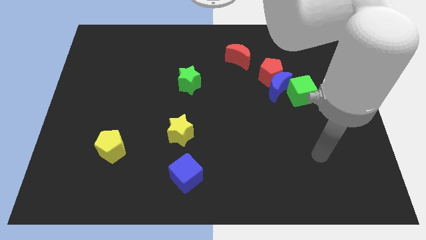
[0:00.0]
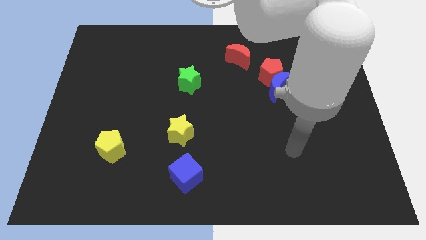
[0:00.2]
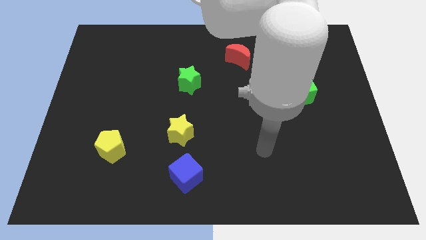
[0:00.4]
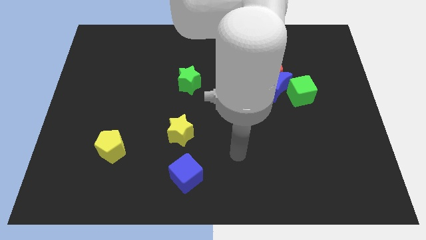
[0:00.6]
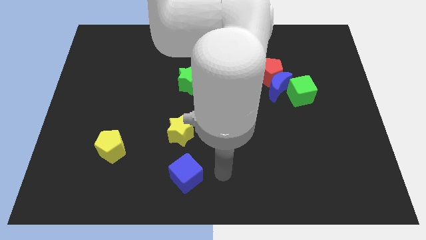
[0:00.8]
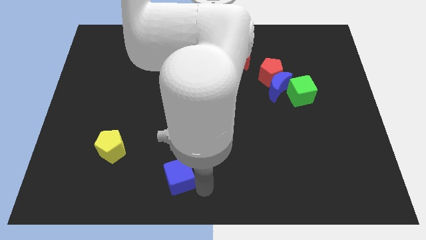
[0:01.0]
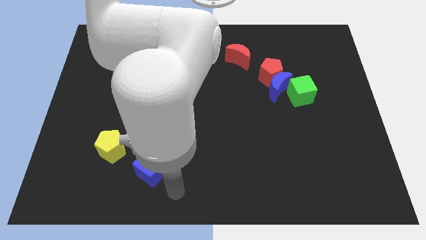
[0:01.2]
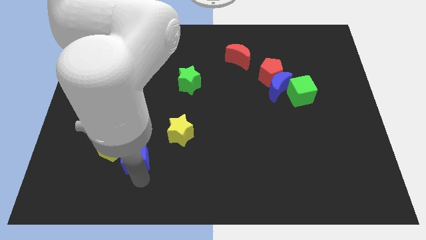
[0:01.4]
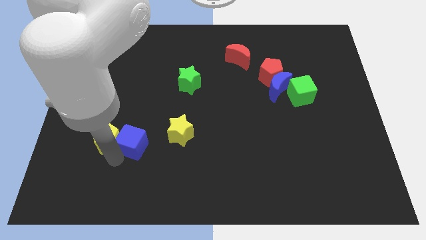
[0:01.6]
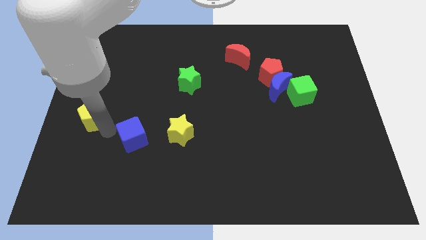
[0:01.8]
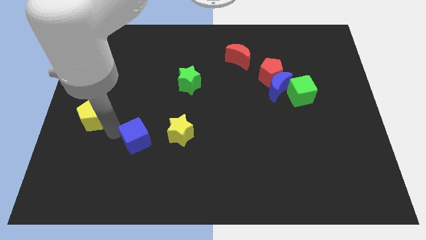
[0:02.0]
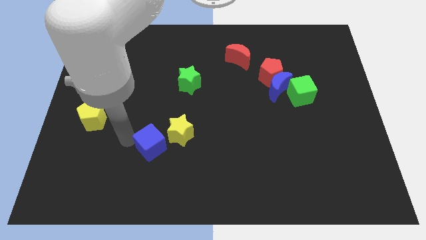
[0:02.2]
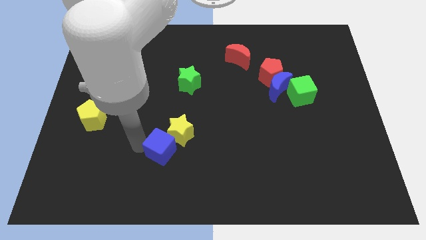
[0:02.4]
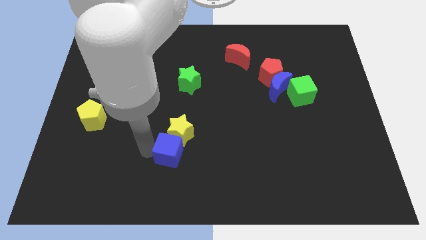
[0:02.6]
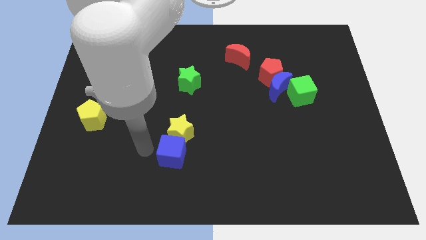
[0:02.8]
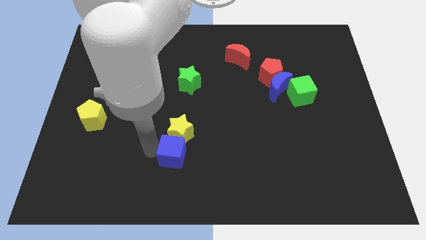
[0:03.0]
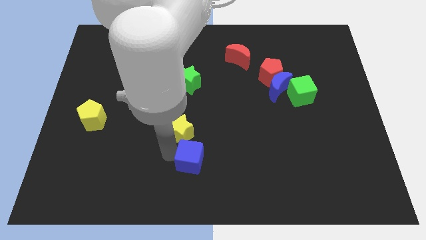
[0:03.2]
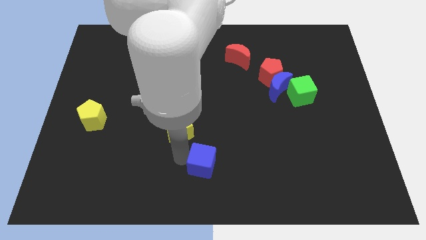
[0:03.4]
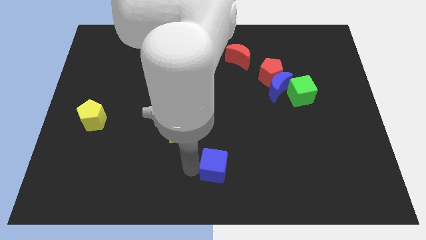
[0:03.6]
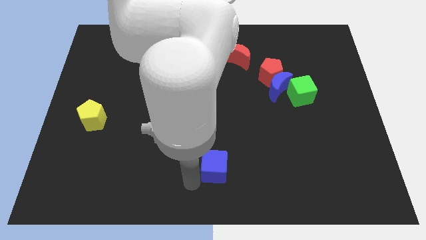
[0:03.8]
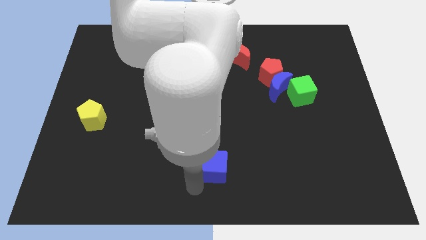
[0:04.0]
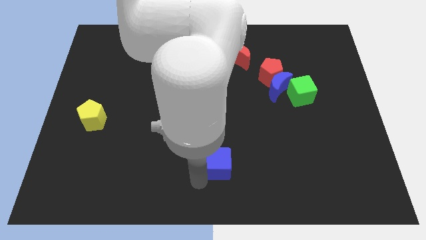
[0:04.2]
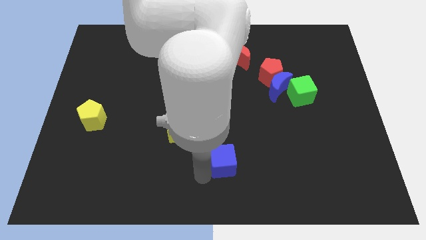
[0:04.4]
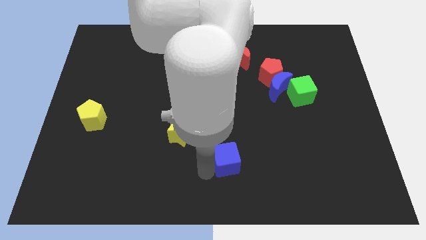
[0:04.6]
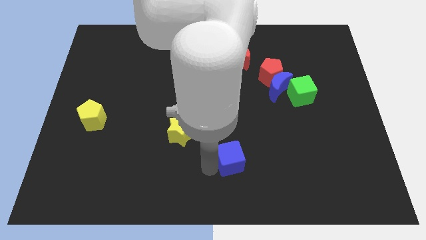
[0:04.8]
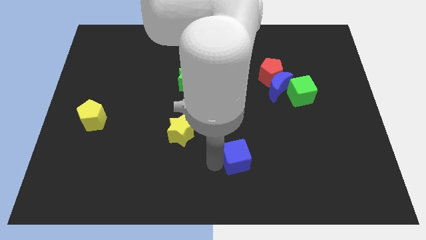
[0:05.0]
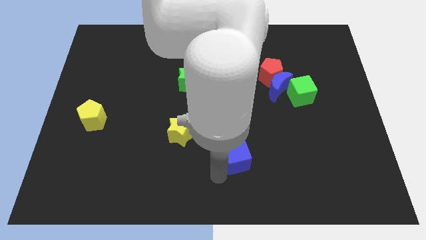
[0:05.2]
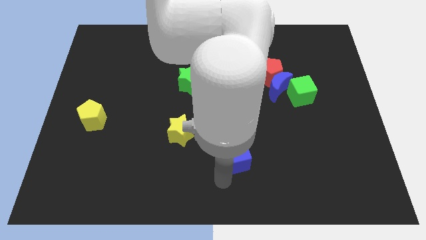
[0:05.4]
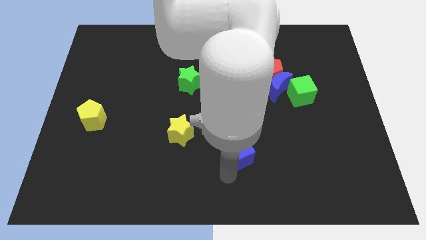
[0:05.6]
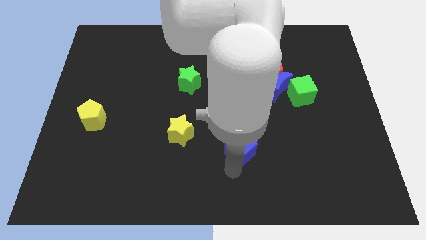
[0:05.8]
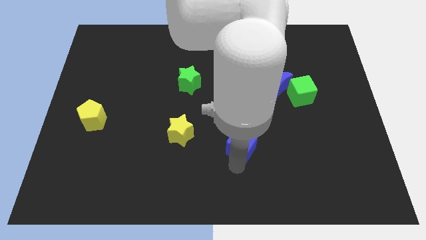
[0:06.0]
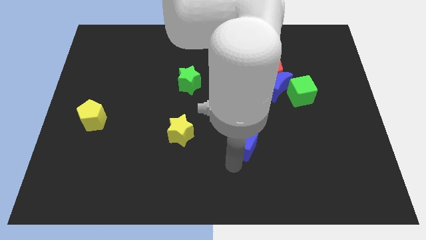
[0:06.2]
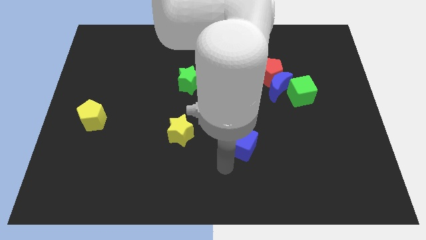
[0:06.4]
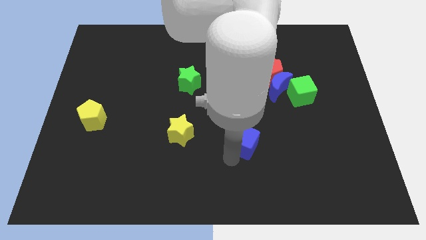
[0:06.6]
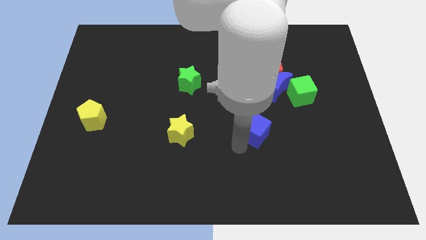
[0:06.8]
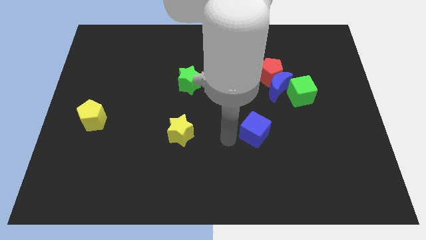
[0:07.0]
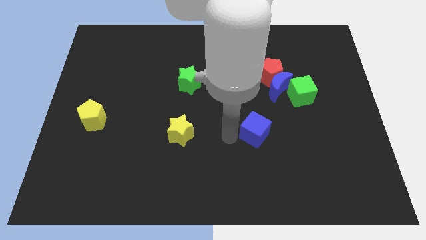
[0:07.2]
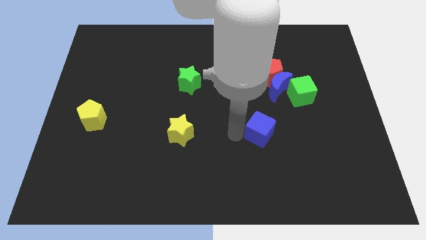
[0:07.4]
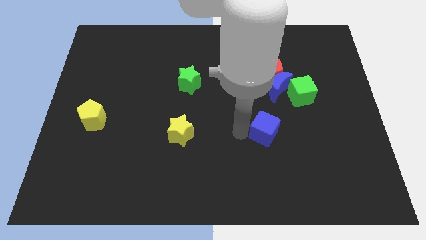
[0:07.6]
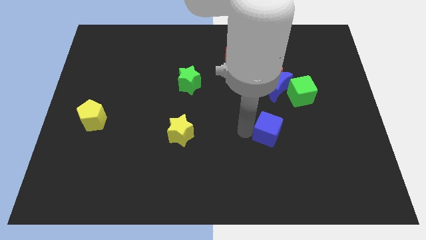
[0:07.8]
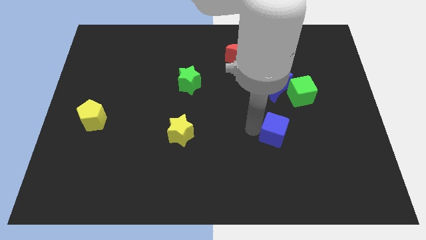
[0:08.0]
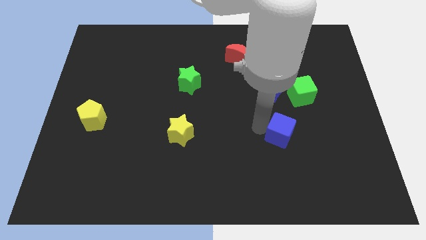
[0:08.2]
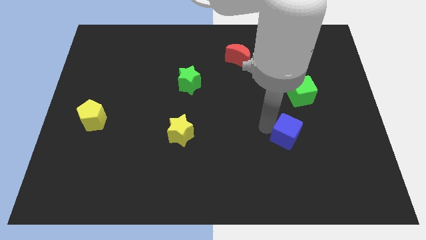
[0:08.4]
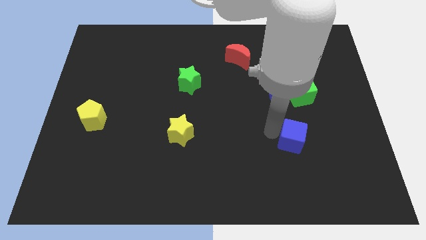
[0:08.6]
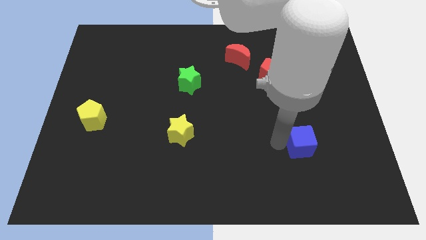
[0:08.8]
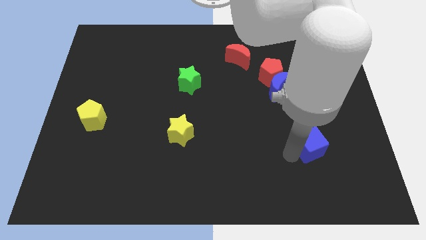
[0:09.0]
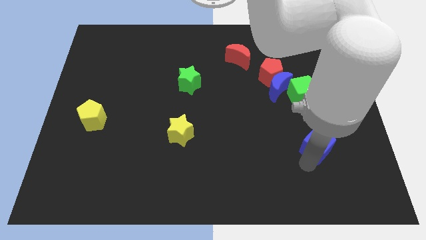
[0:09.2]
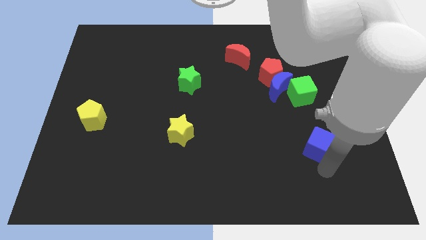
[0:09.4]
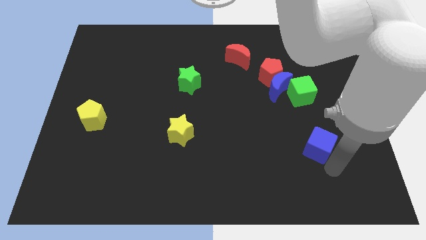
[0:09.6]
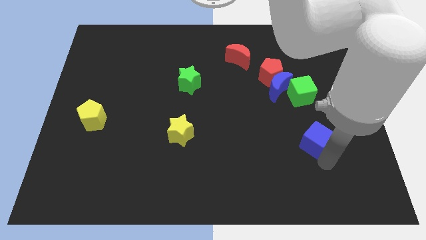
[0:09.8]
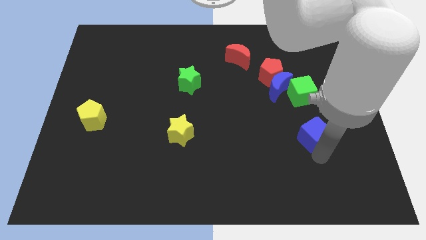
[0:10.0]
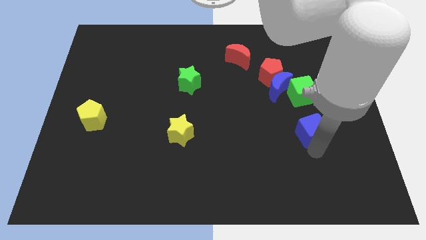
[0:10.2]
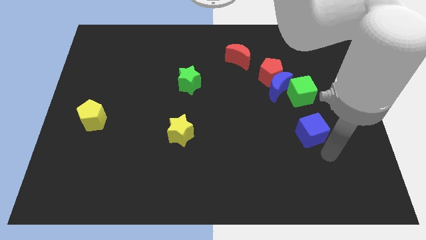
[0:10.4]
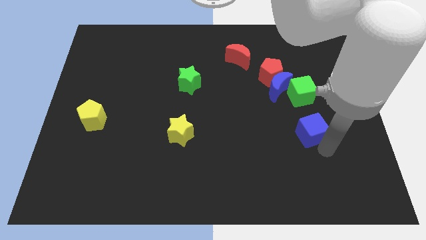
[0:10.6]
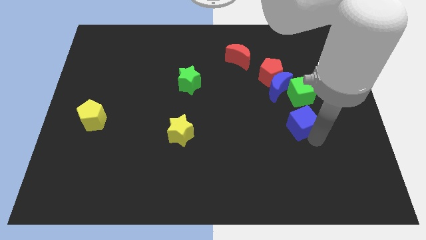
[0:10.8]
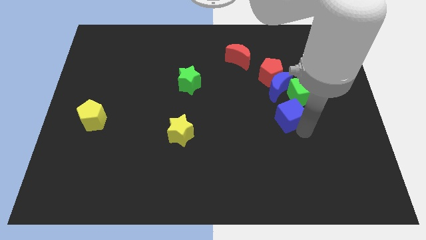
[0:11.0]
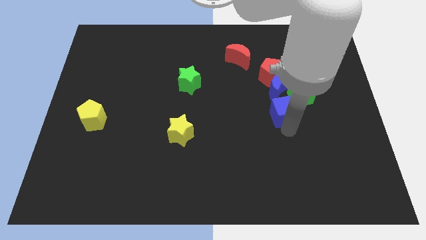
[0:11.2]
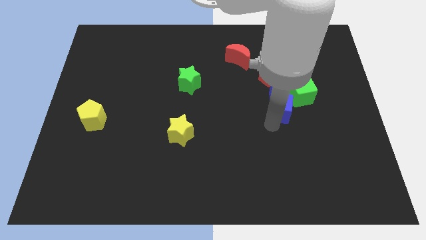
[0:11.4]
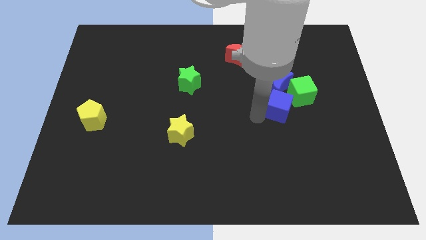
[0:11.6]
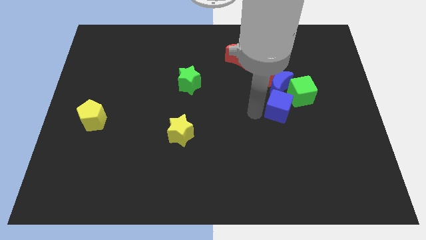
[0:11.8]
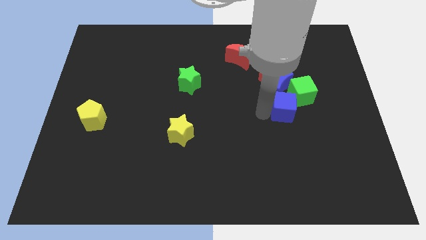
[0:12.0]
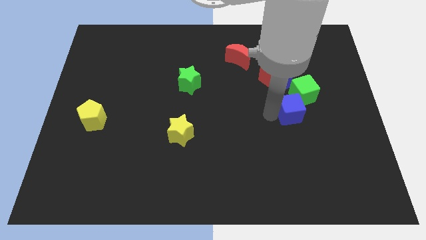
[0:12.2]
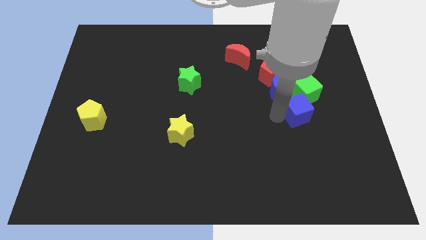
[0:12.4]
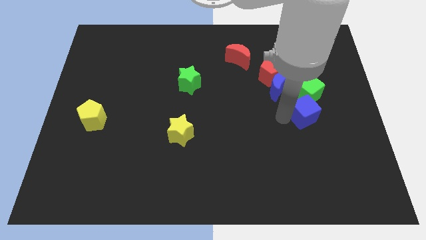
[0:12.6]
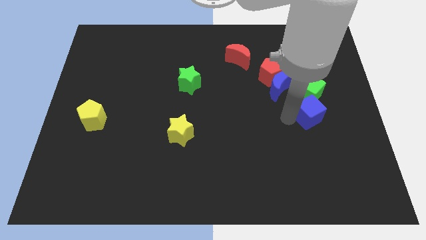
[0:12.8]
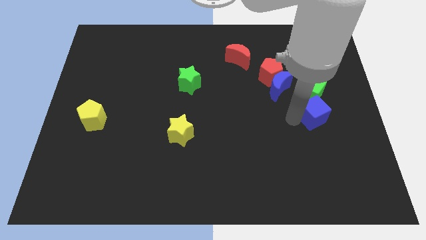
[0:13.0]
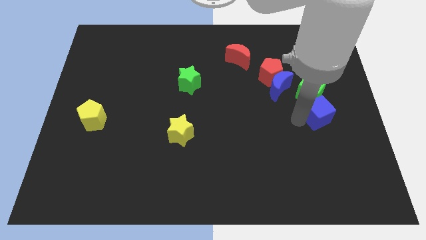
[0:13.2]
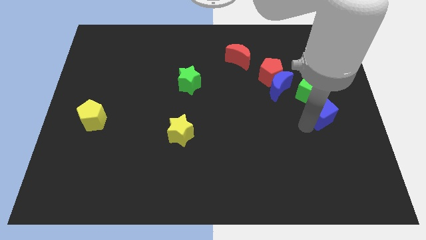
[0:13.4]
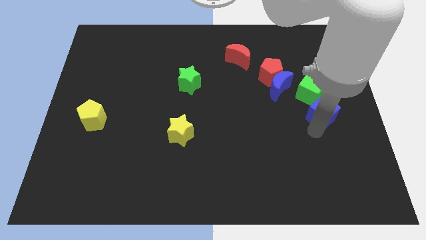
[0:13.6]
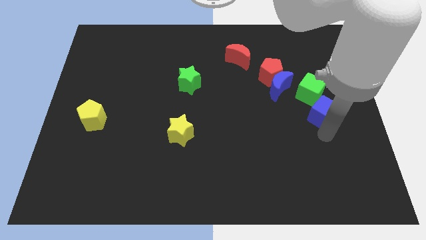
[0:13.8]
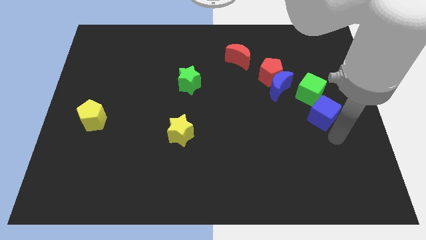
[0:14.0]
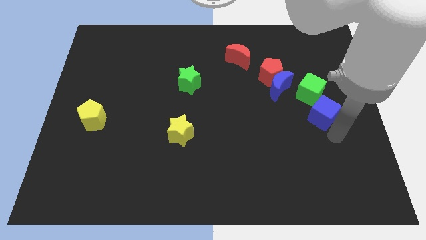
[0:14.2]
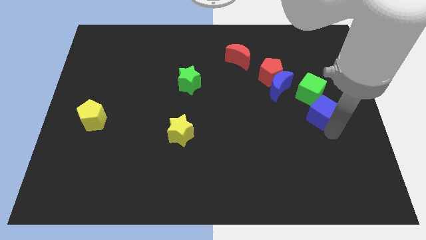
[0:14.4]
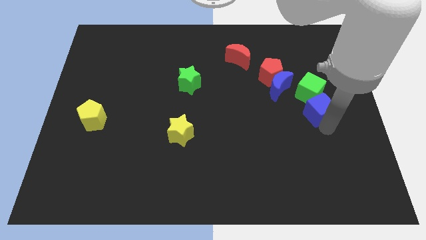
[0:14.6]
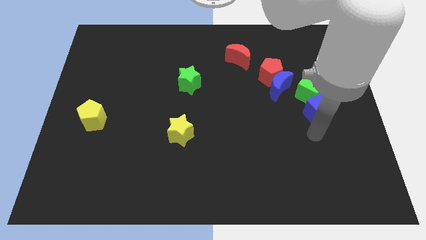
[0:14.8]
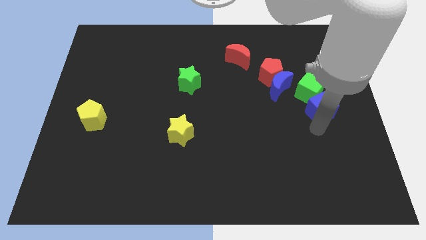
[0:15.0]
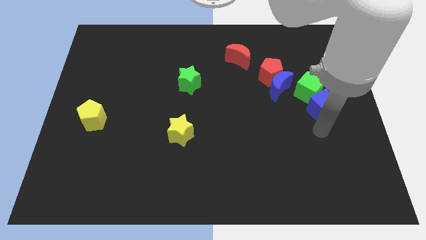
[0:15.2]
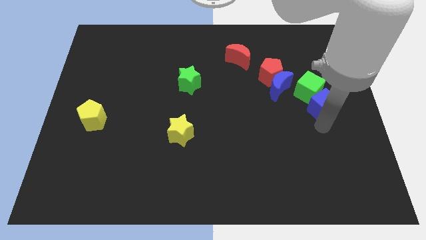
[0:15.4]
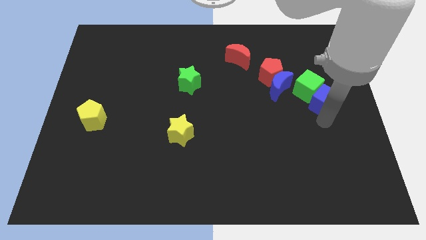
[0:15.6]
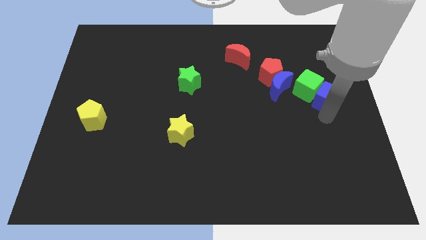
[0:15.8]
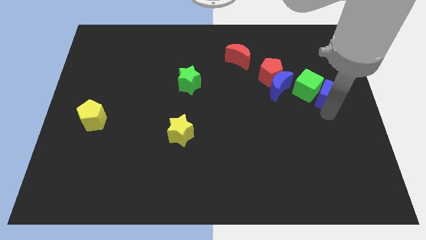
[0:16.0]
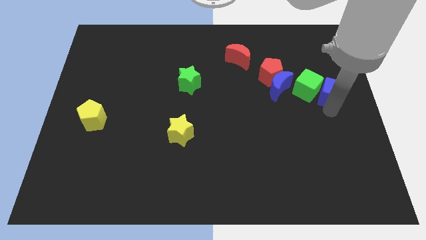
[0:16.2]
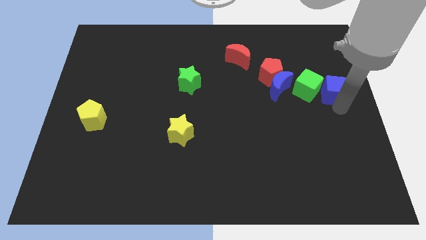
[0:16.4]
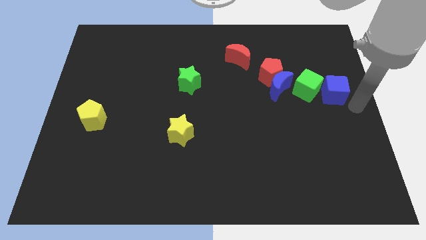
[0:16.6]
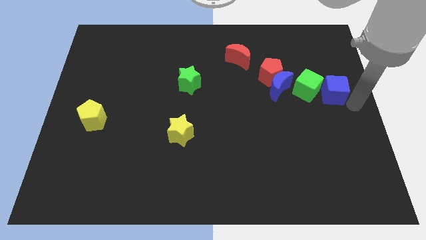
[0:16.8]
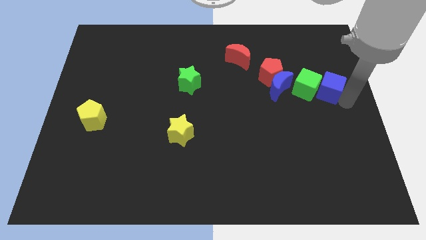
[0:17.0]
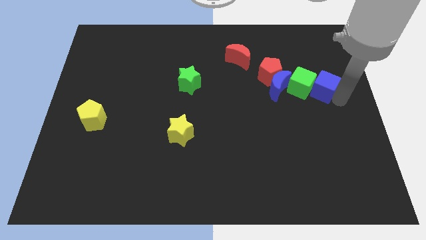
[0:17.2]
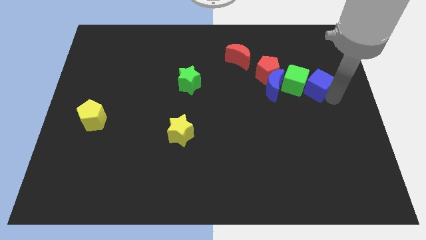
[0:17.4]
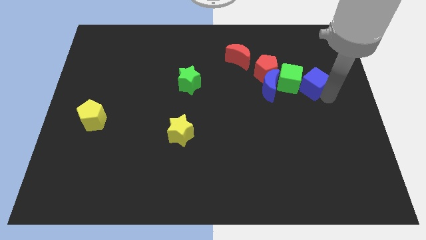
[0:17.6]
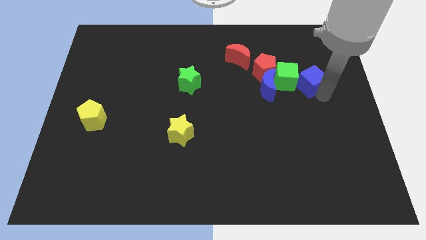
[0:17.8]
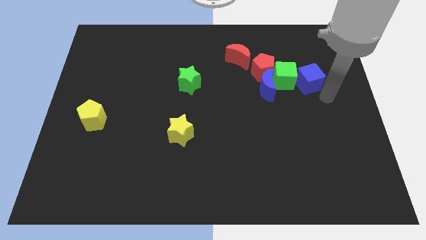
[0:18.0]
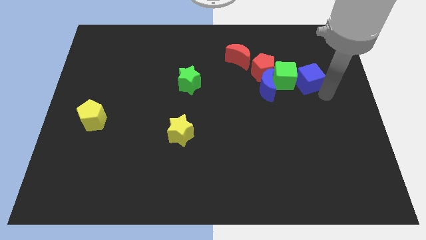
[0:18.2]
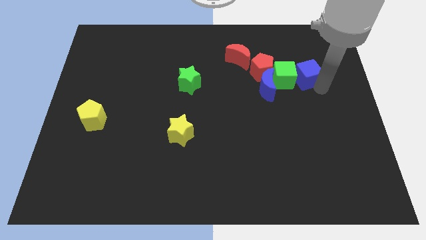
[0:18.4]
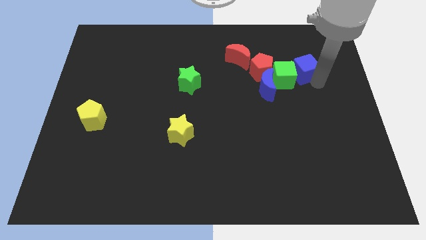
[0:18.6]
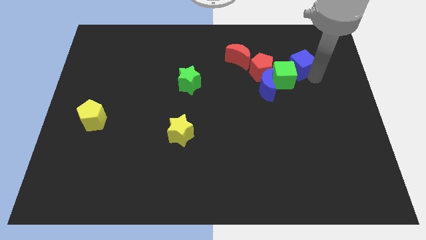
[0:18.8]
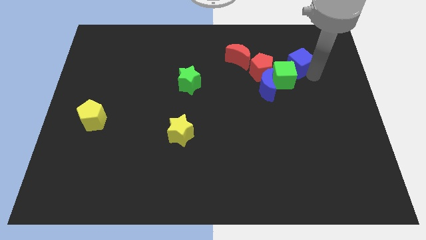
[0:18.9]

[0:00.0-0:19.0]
push the blue cube right of the red moon
